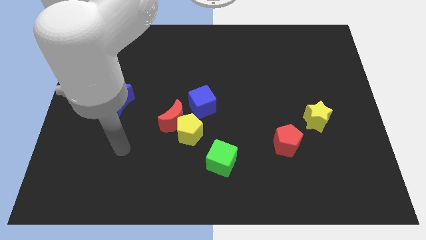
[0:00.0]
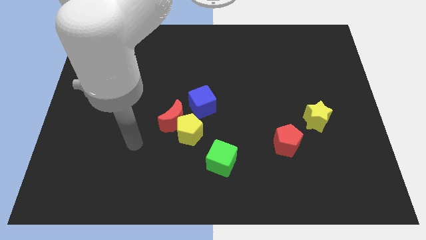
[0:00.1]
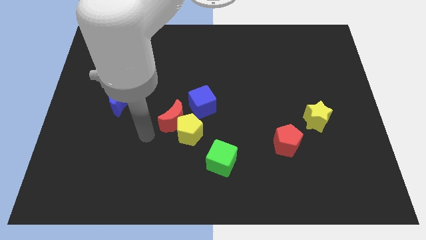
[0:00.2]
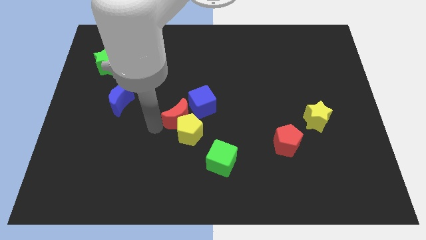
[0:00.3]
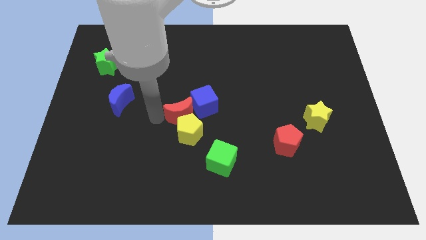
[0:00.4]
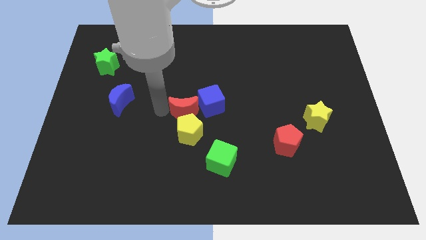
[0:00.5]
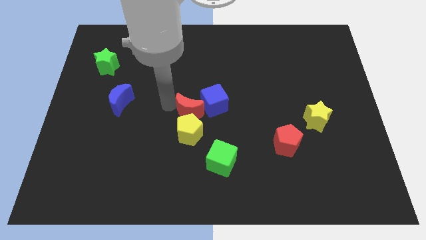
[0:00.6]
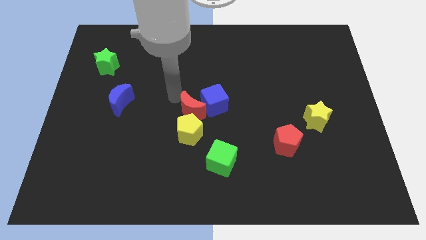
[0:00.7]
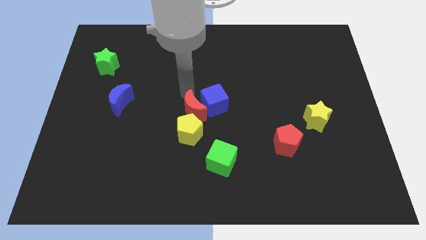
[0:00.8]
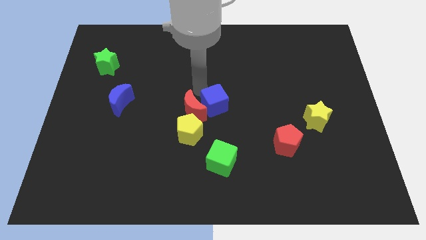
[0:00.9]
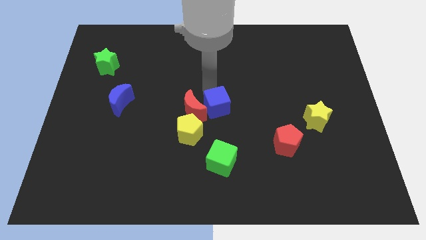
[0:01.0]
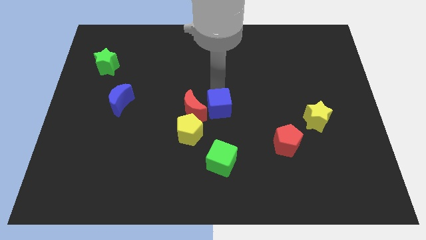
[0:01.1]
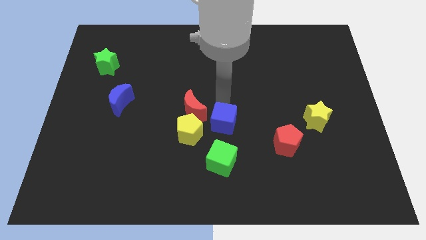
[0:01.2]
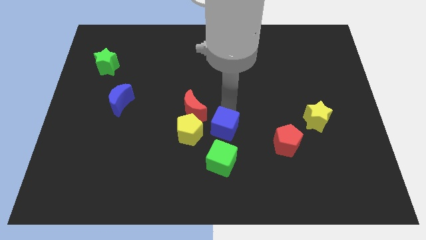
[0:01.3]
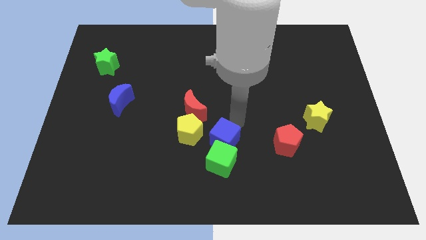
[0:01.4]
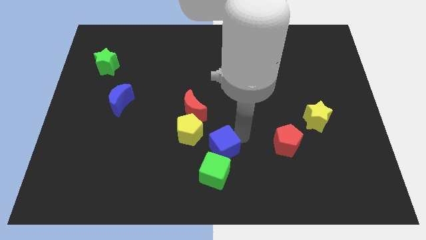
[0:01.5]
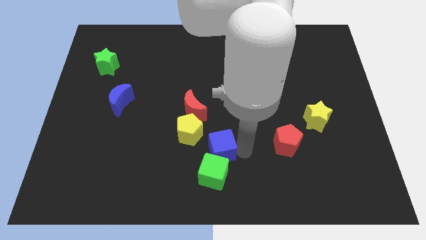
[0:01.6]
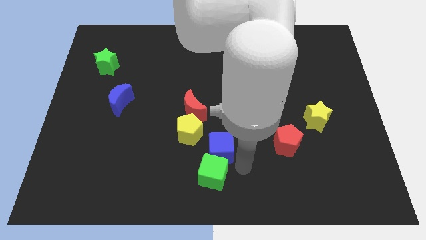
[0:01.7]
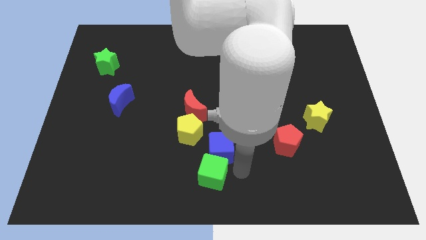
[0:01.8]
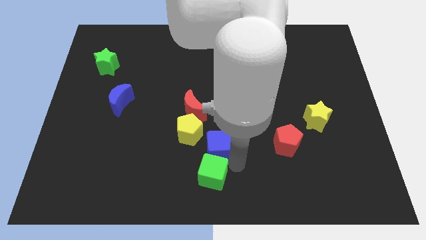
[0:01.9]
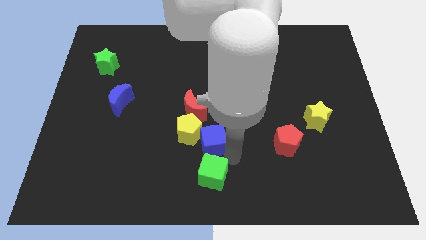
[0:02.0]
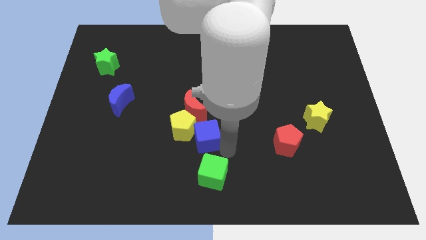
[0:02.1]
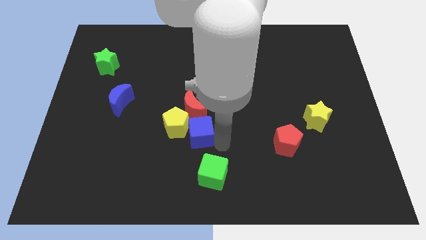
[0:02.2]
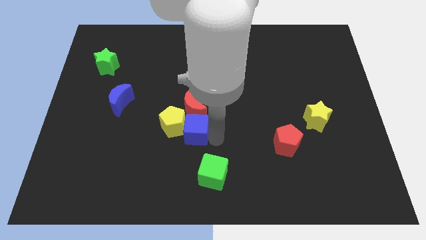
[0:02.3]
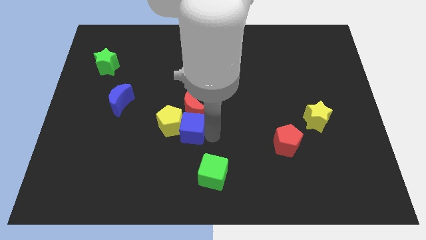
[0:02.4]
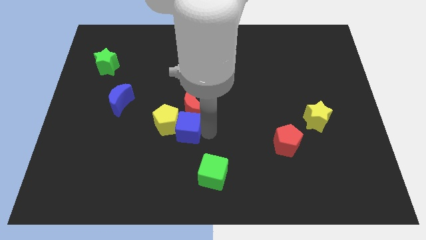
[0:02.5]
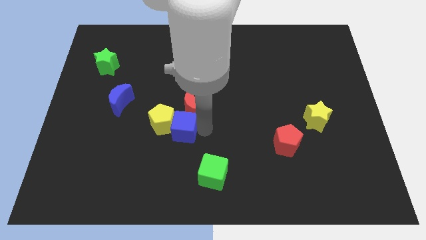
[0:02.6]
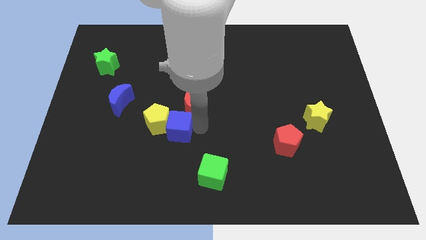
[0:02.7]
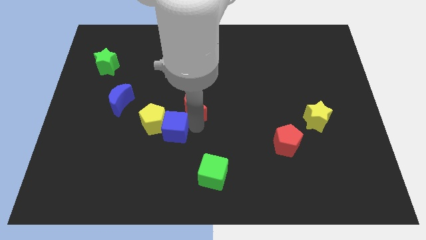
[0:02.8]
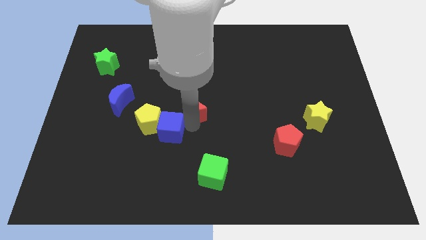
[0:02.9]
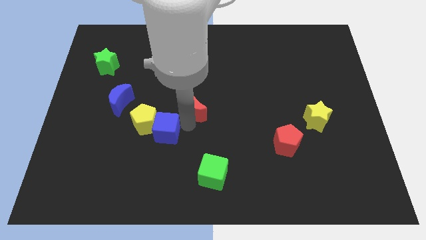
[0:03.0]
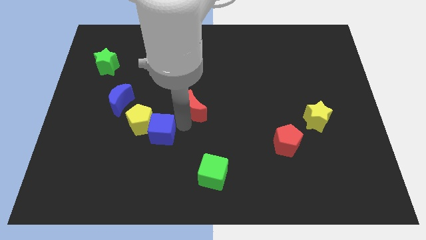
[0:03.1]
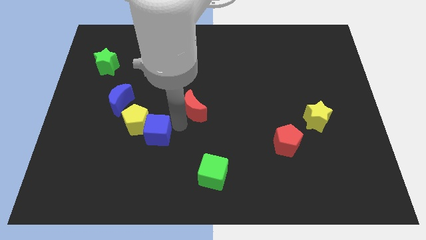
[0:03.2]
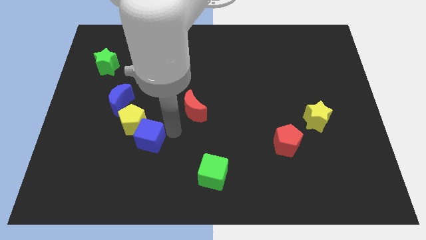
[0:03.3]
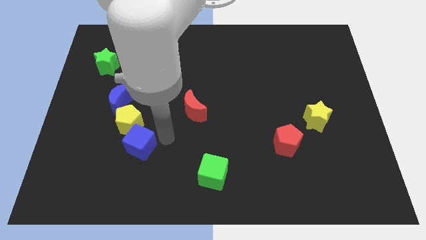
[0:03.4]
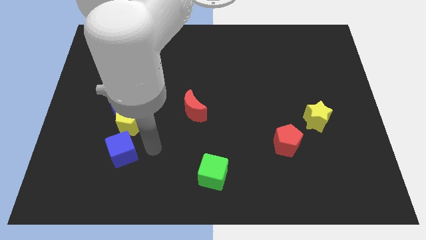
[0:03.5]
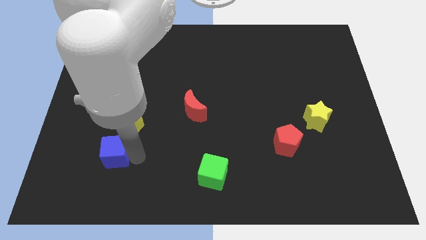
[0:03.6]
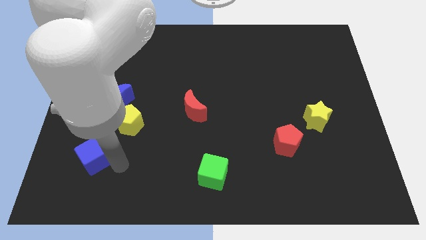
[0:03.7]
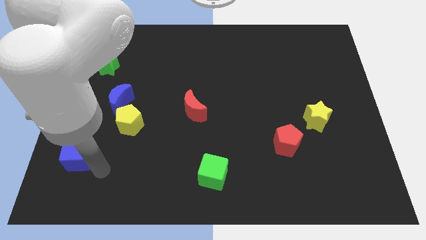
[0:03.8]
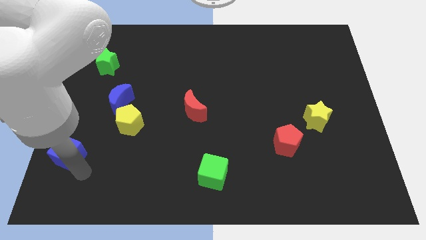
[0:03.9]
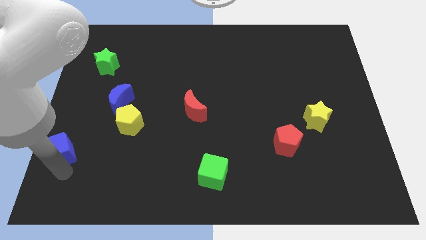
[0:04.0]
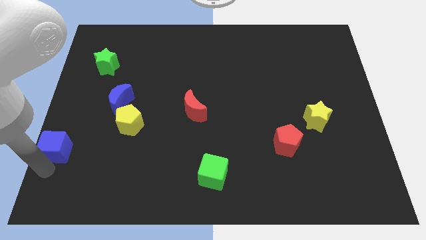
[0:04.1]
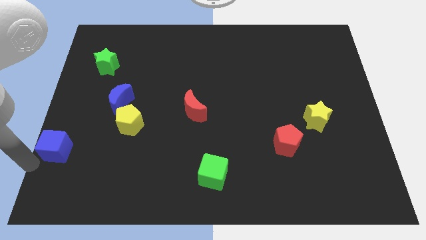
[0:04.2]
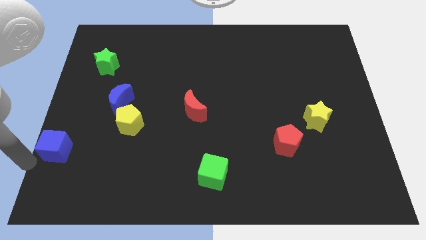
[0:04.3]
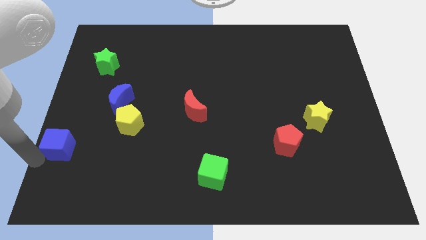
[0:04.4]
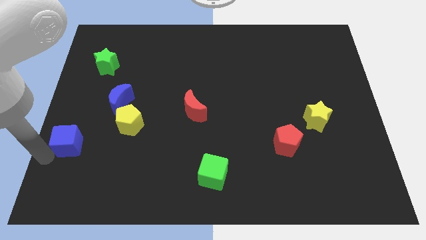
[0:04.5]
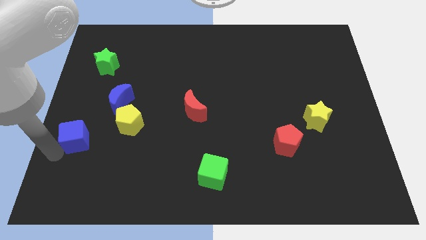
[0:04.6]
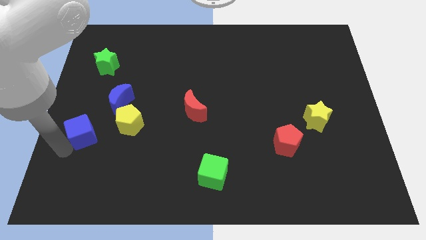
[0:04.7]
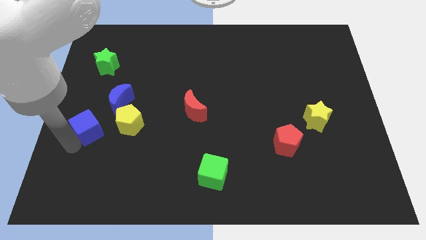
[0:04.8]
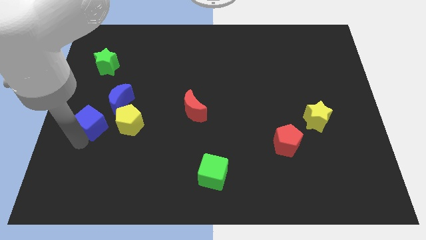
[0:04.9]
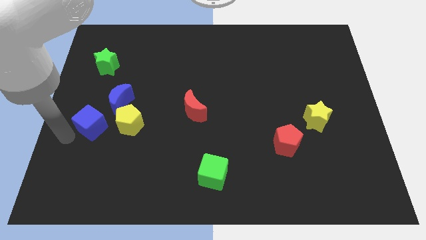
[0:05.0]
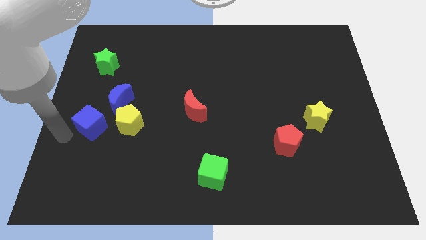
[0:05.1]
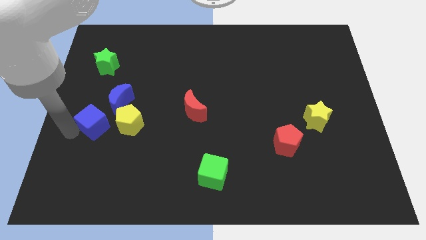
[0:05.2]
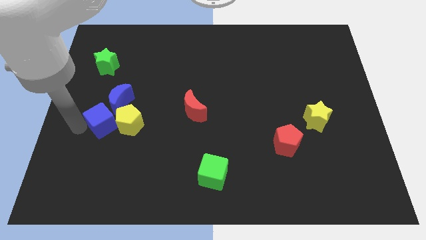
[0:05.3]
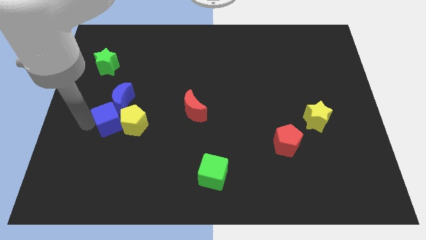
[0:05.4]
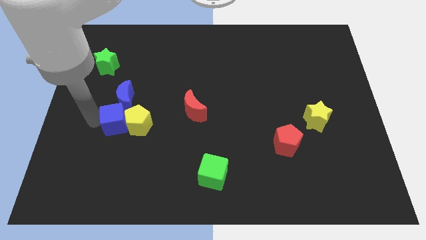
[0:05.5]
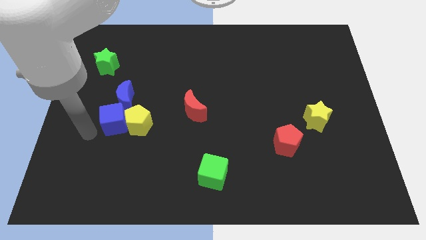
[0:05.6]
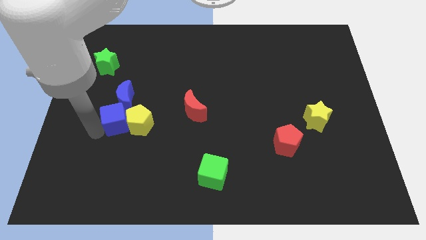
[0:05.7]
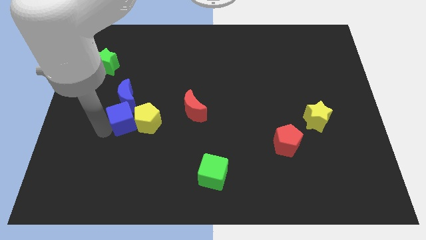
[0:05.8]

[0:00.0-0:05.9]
put the blue cube to the blue moon

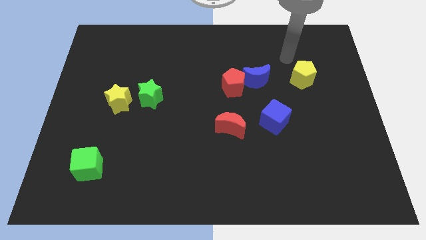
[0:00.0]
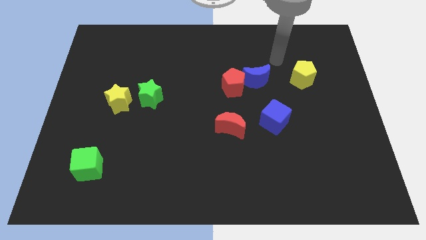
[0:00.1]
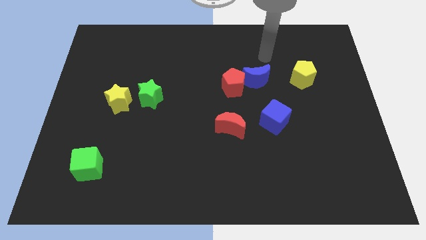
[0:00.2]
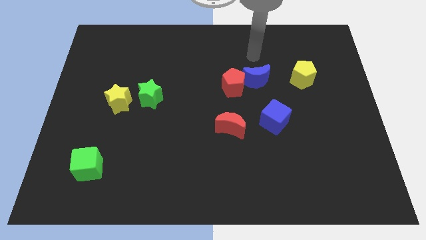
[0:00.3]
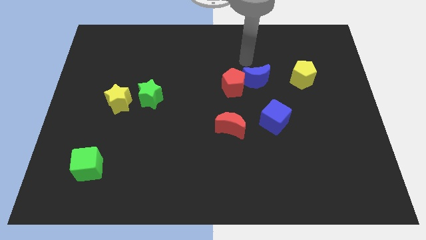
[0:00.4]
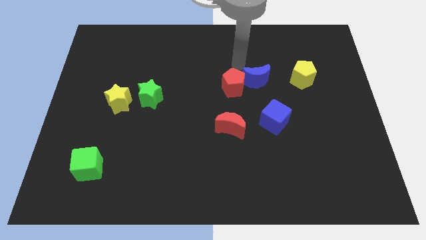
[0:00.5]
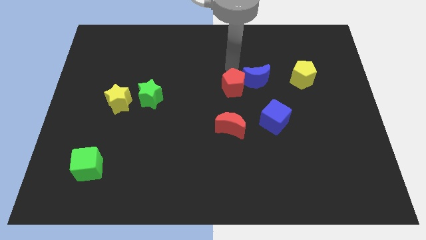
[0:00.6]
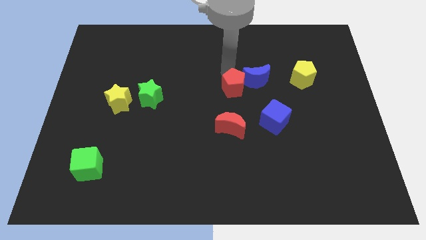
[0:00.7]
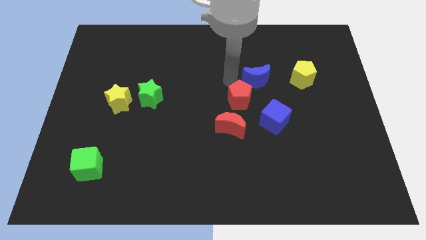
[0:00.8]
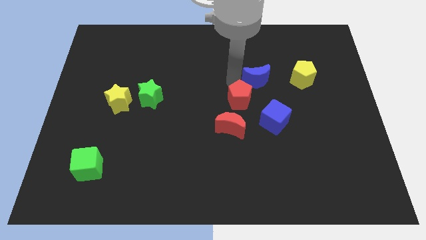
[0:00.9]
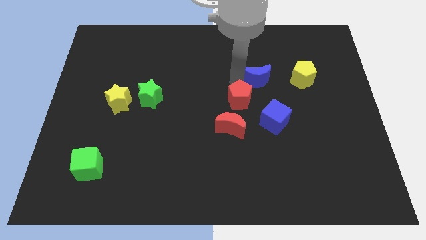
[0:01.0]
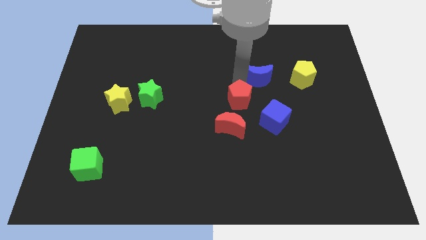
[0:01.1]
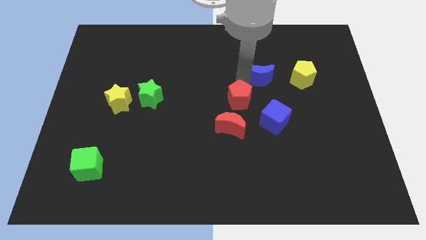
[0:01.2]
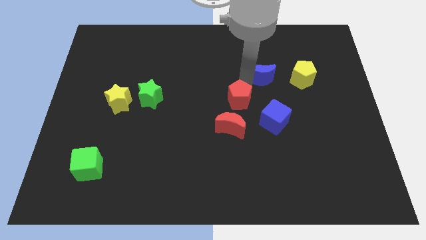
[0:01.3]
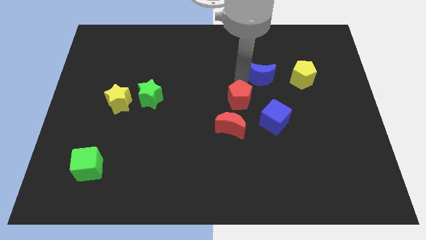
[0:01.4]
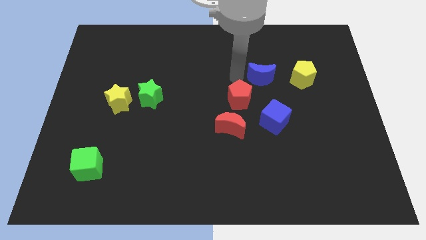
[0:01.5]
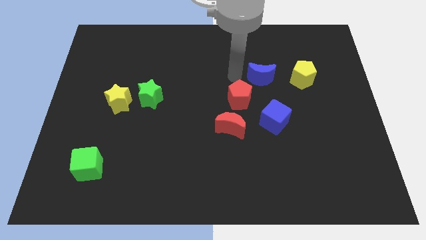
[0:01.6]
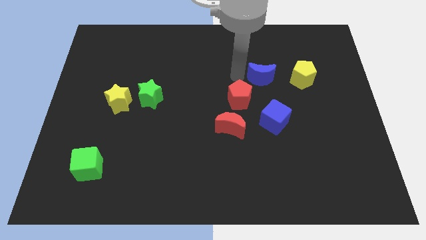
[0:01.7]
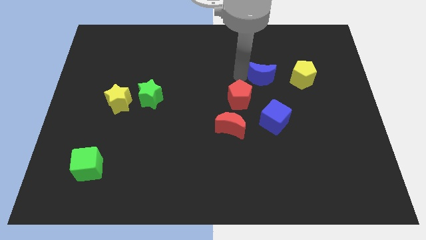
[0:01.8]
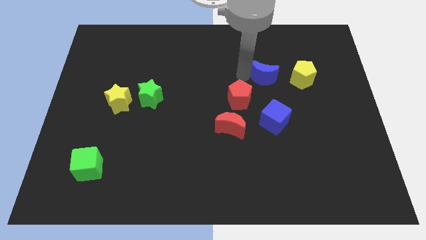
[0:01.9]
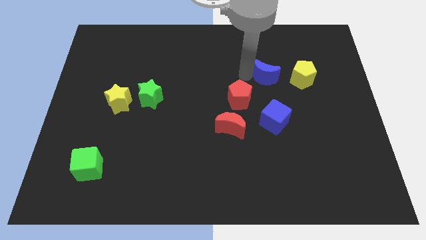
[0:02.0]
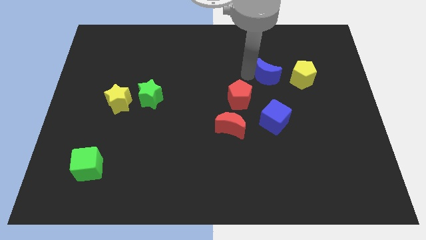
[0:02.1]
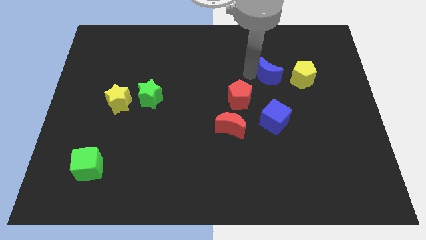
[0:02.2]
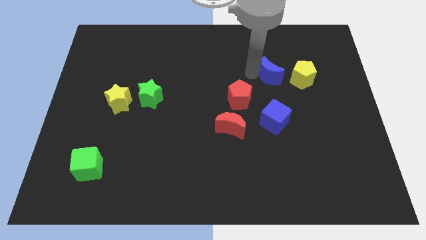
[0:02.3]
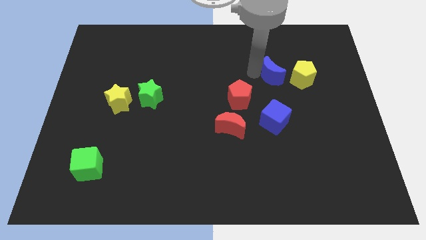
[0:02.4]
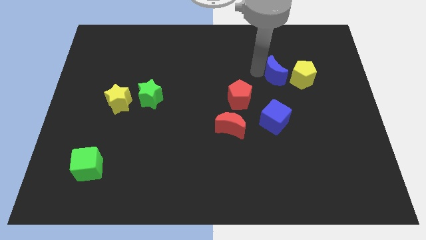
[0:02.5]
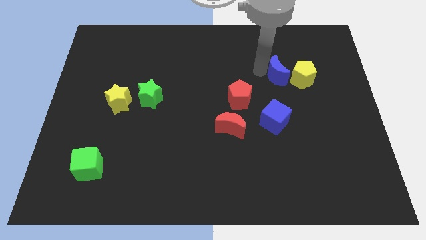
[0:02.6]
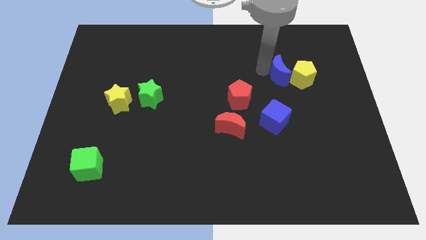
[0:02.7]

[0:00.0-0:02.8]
move the blue moon towards the yellow pentagon
